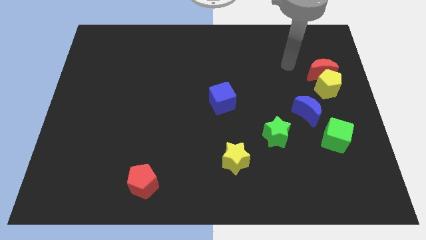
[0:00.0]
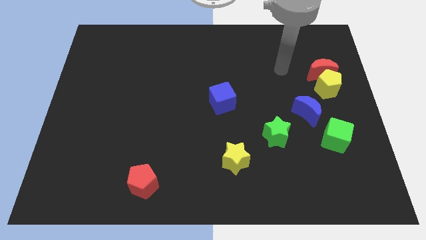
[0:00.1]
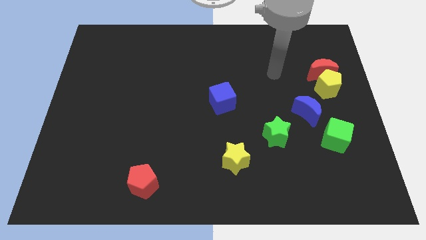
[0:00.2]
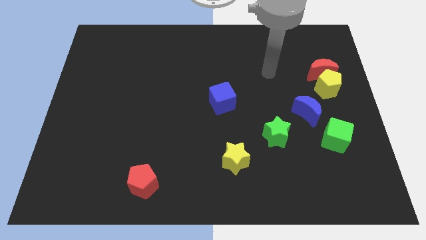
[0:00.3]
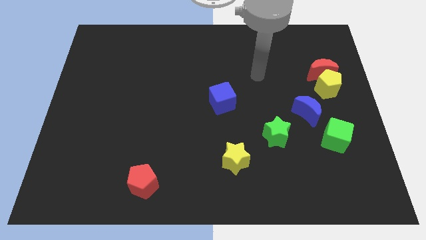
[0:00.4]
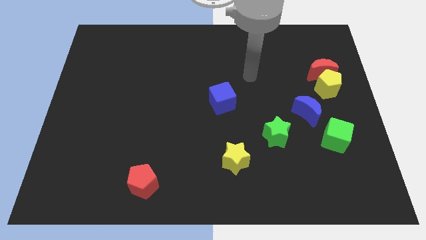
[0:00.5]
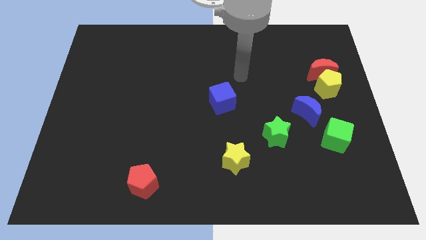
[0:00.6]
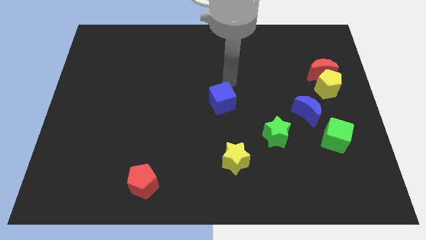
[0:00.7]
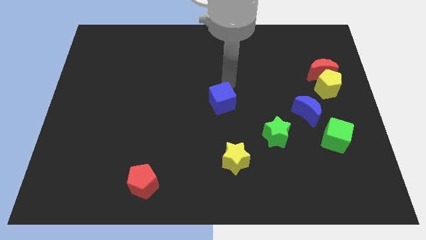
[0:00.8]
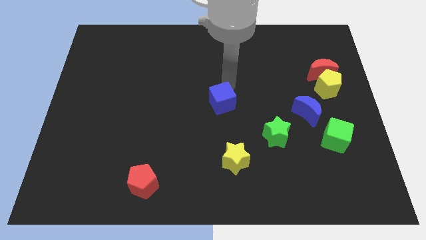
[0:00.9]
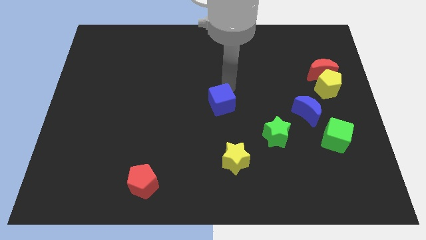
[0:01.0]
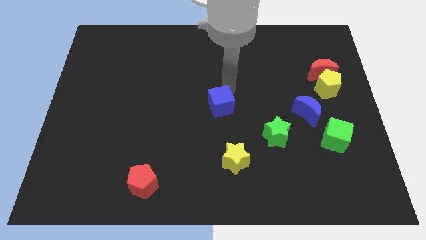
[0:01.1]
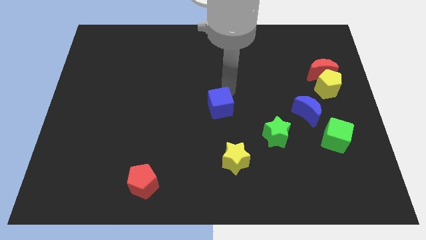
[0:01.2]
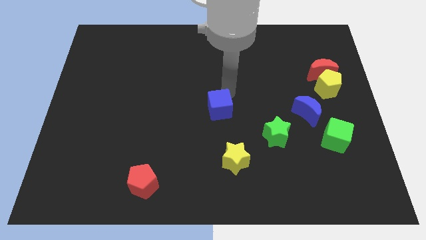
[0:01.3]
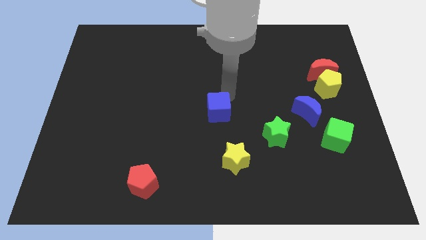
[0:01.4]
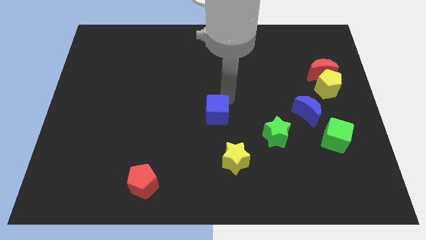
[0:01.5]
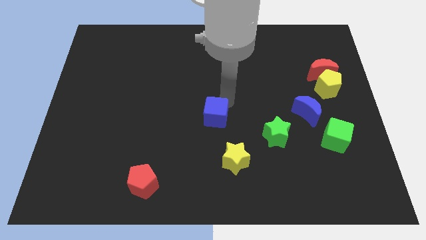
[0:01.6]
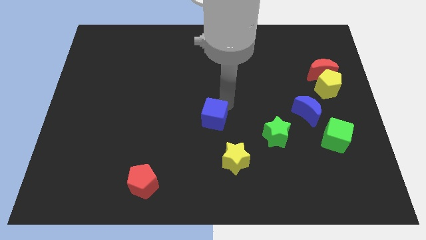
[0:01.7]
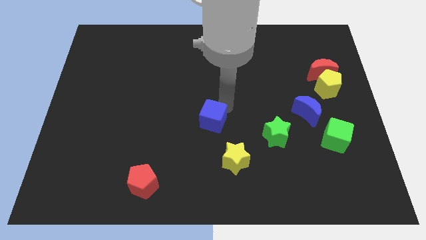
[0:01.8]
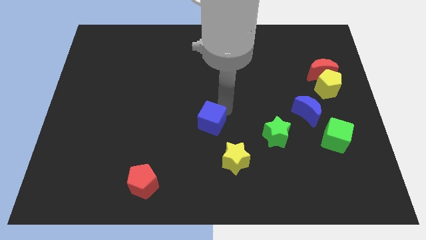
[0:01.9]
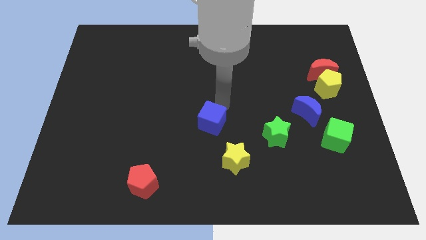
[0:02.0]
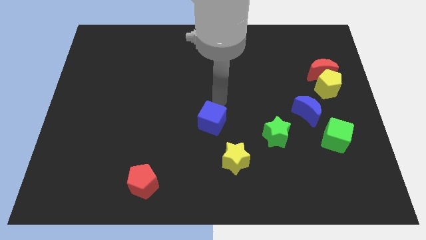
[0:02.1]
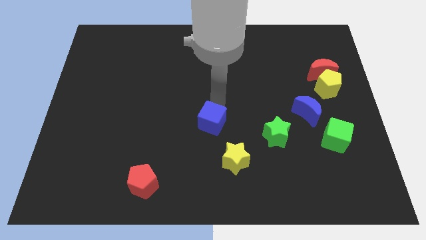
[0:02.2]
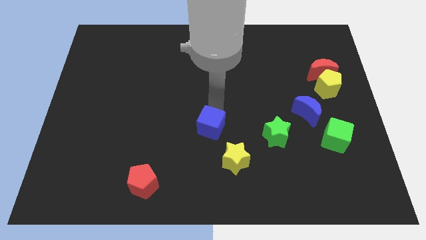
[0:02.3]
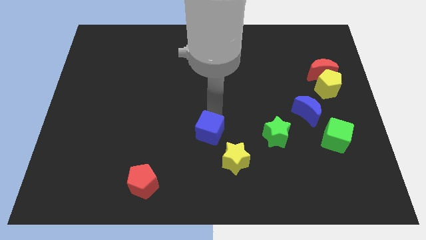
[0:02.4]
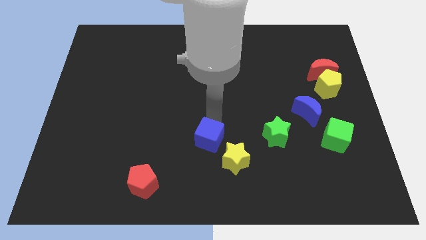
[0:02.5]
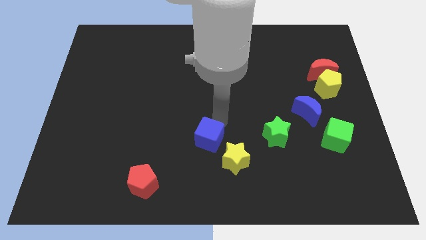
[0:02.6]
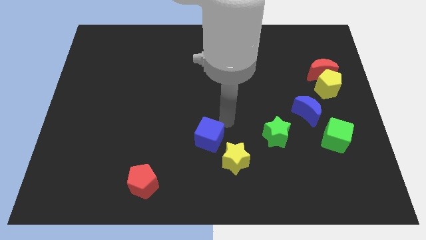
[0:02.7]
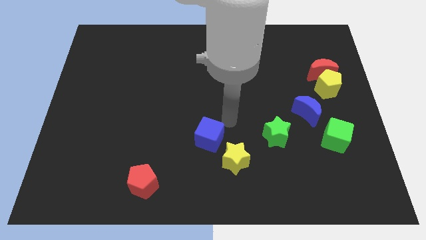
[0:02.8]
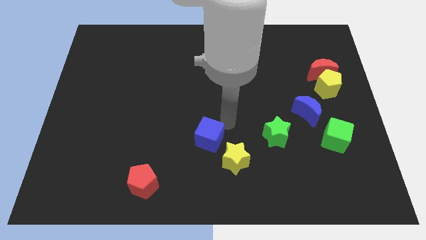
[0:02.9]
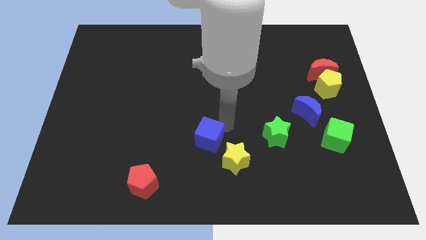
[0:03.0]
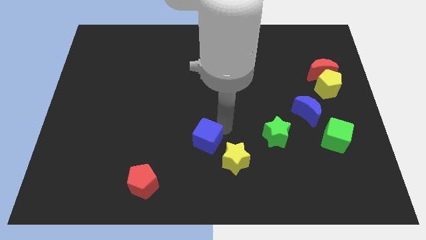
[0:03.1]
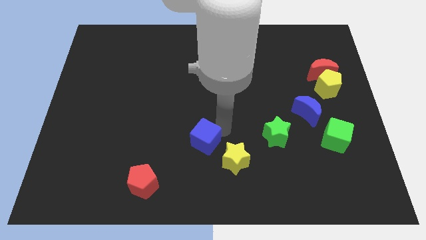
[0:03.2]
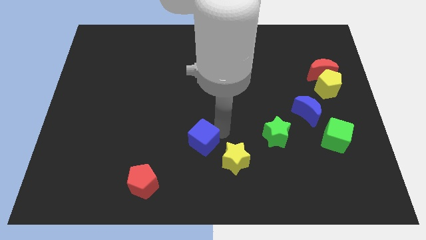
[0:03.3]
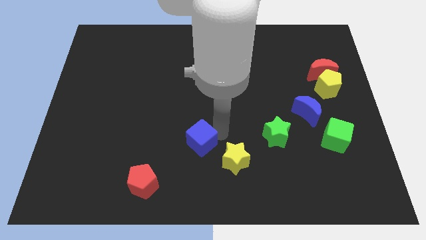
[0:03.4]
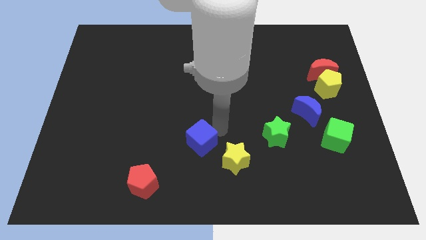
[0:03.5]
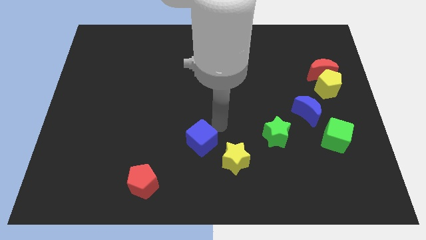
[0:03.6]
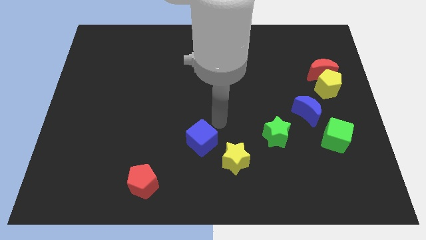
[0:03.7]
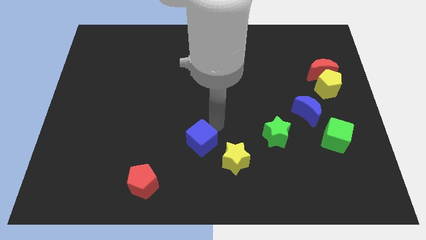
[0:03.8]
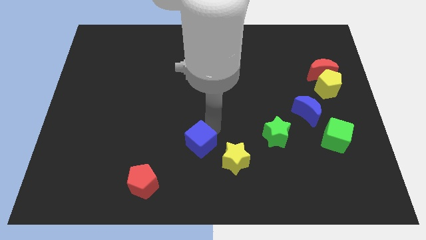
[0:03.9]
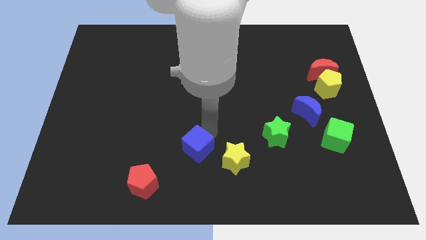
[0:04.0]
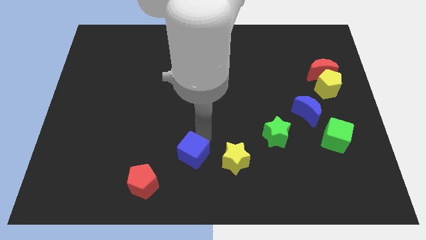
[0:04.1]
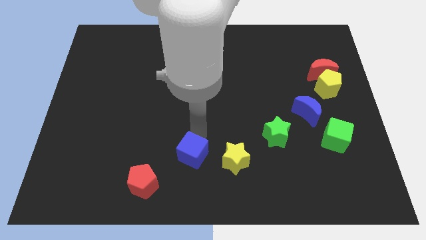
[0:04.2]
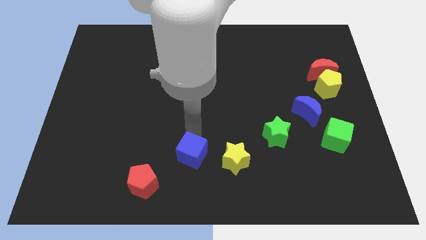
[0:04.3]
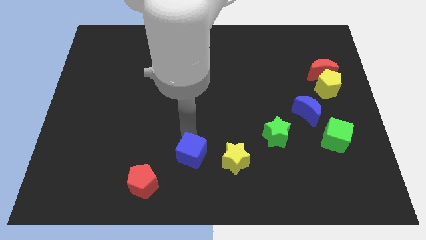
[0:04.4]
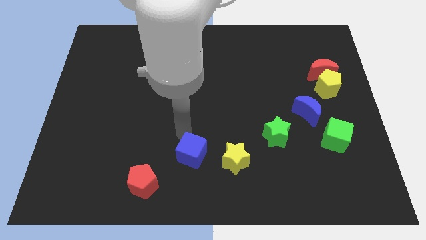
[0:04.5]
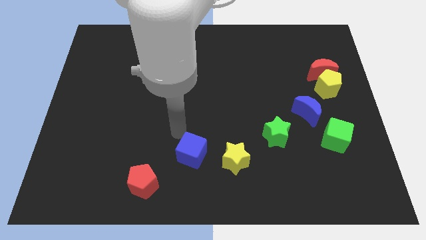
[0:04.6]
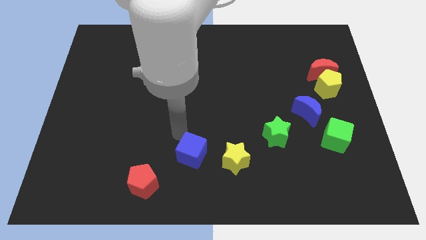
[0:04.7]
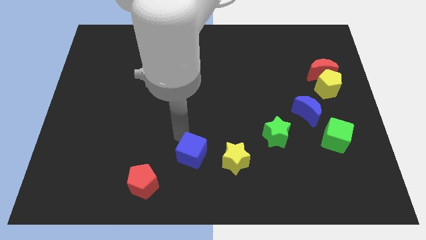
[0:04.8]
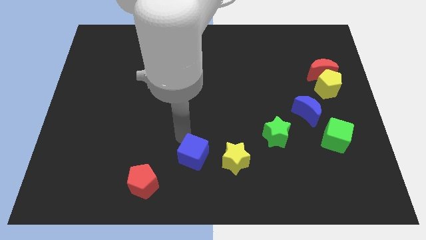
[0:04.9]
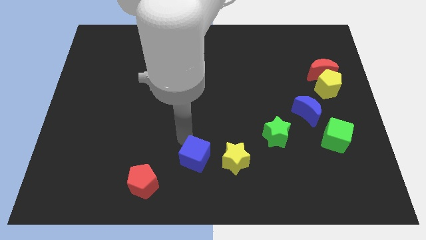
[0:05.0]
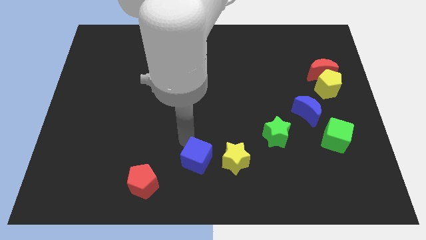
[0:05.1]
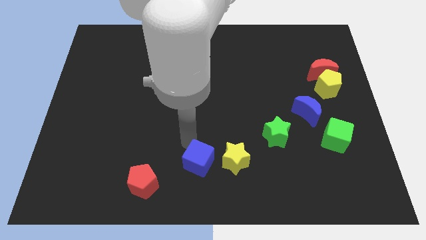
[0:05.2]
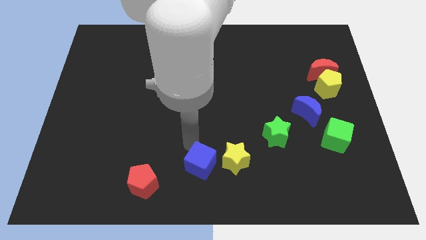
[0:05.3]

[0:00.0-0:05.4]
push the blue cube to the bottom left of the yellow star

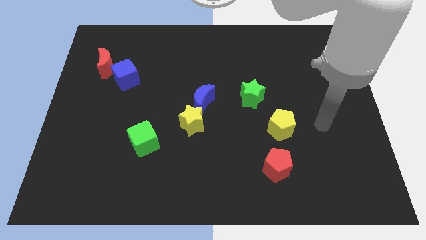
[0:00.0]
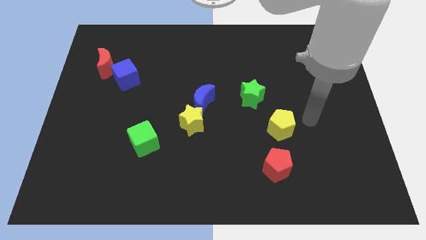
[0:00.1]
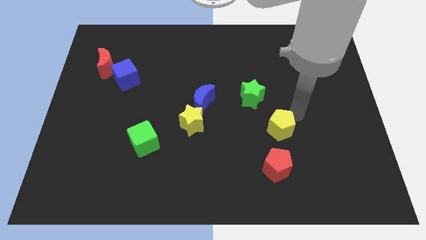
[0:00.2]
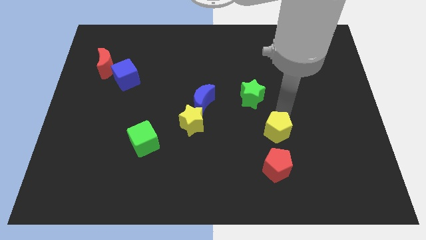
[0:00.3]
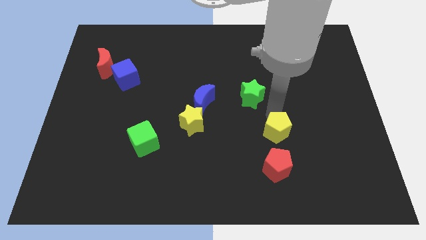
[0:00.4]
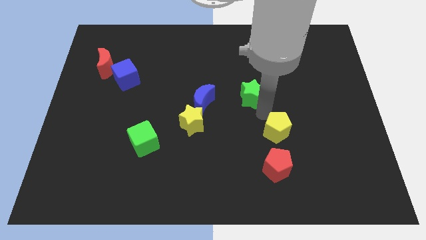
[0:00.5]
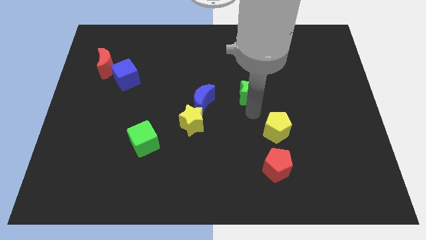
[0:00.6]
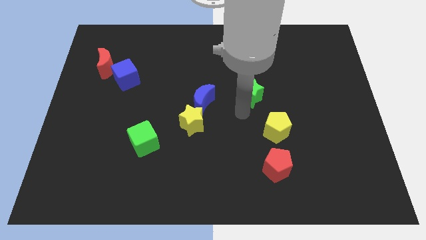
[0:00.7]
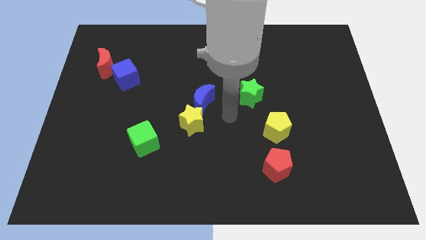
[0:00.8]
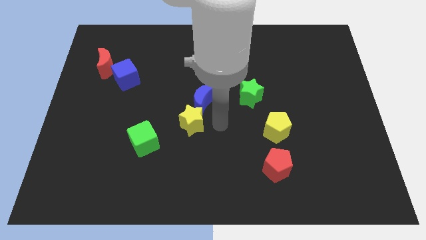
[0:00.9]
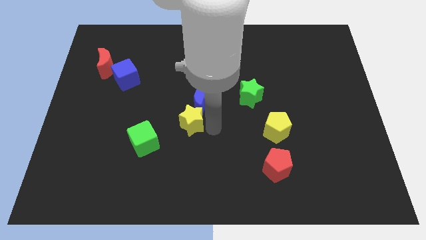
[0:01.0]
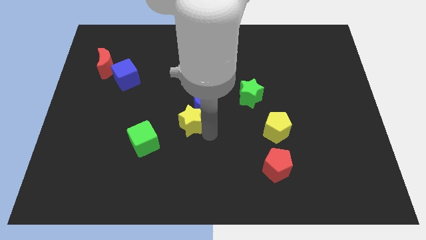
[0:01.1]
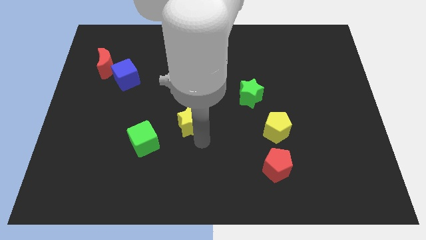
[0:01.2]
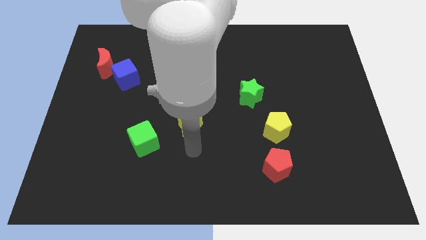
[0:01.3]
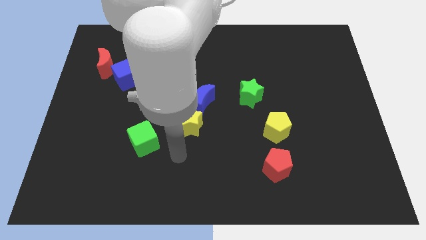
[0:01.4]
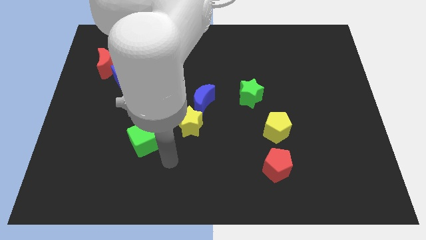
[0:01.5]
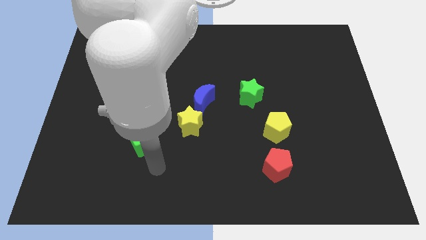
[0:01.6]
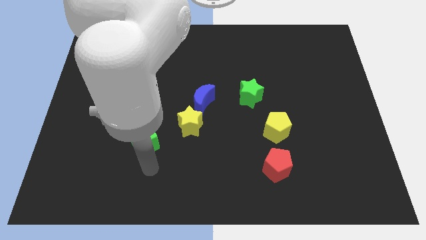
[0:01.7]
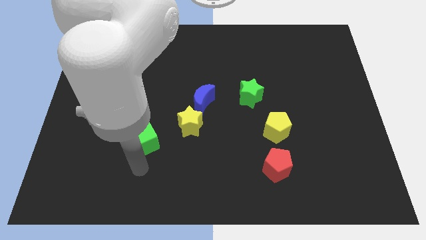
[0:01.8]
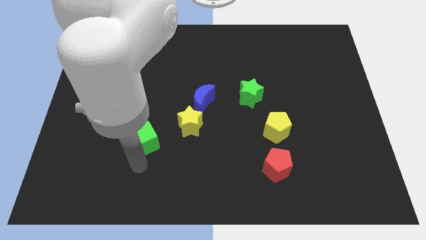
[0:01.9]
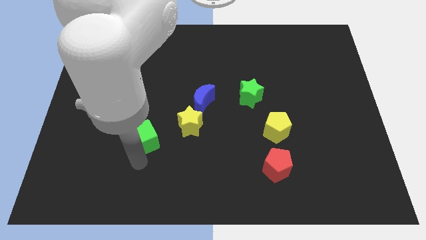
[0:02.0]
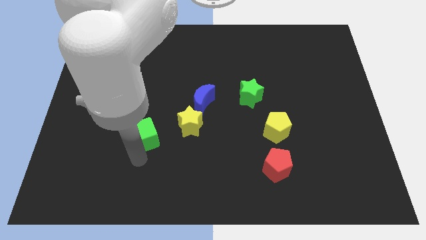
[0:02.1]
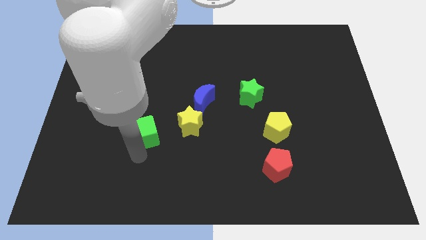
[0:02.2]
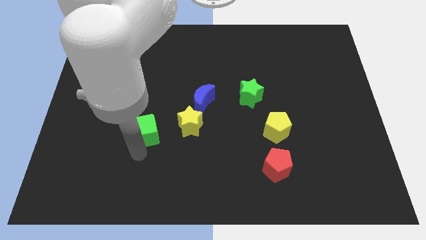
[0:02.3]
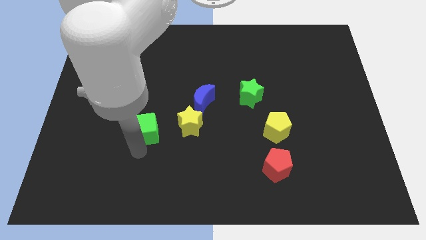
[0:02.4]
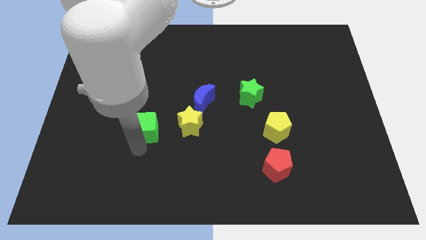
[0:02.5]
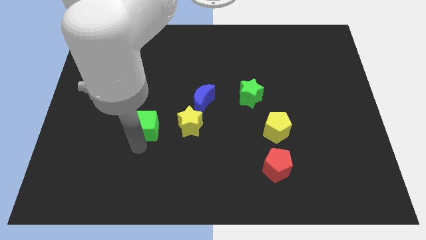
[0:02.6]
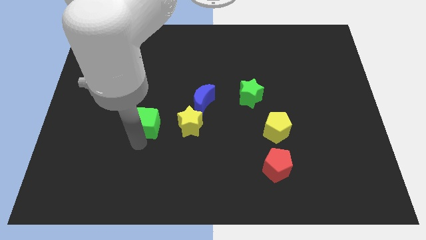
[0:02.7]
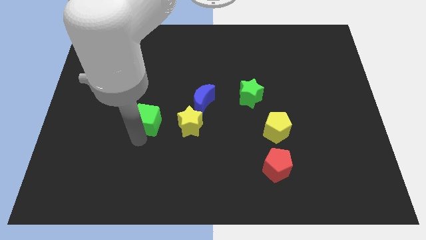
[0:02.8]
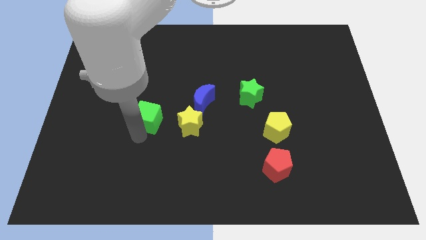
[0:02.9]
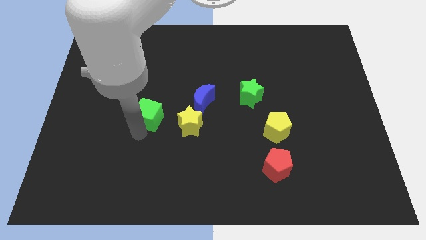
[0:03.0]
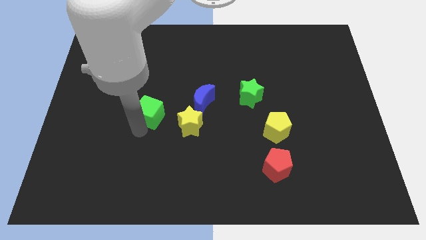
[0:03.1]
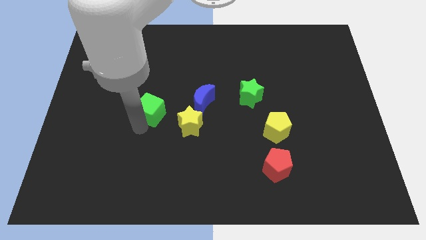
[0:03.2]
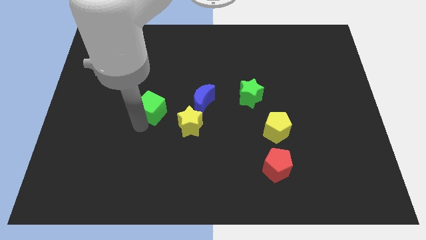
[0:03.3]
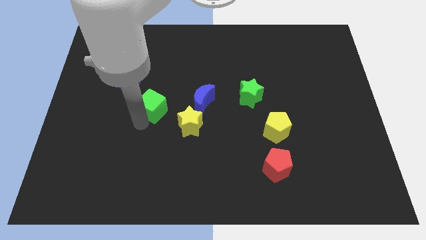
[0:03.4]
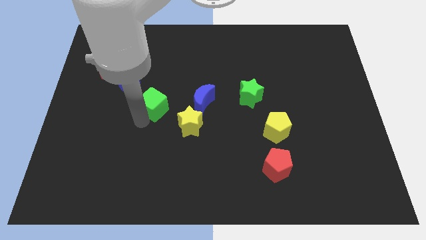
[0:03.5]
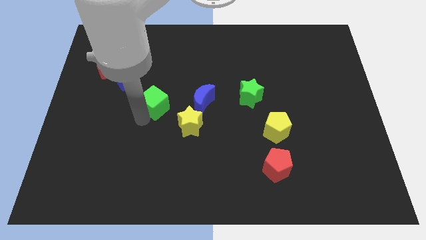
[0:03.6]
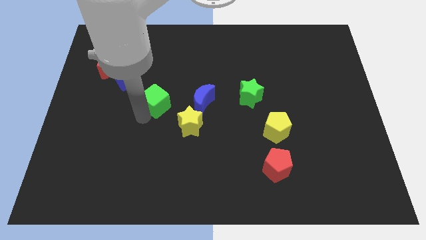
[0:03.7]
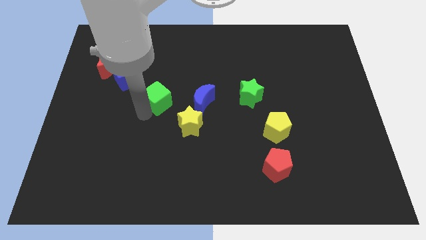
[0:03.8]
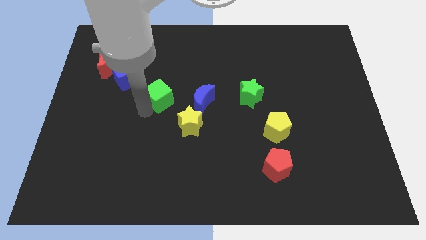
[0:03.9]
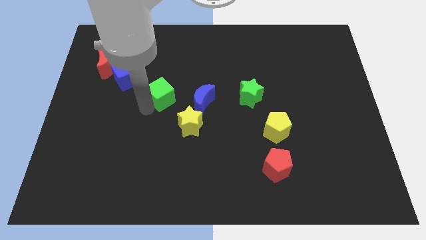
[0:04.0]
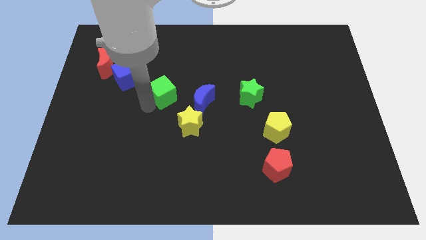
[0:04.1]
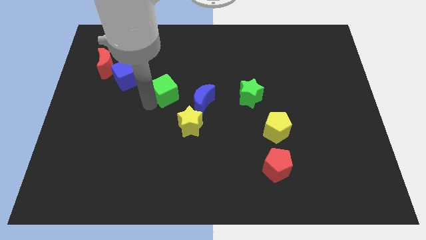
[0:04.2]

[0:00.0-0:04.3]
move the green cube diagonally up and to the left of the blue moon
